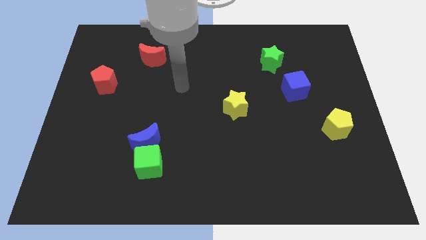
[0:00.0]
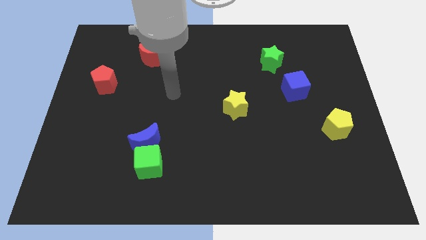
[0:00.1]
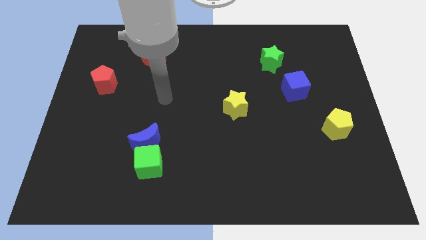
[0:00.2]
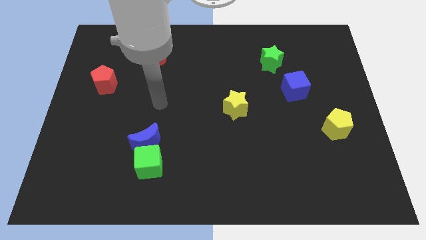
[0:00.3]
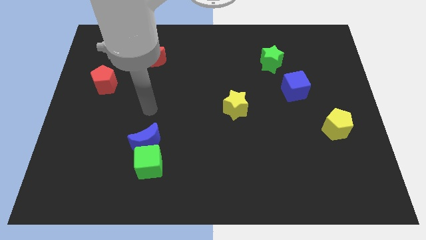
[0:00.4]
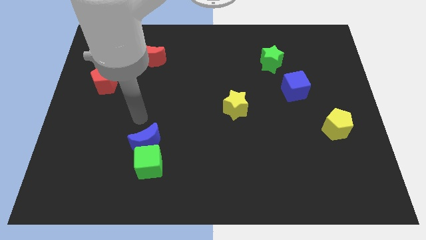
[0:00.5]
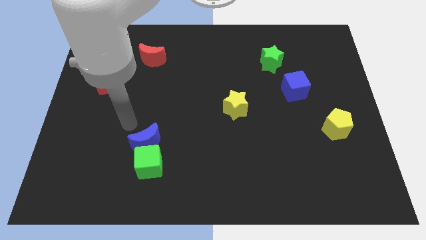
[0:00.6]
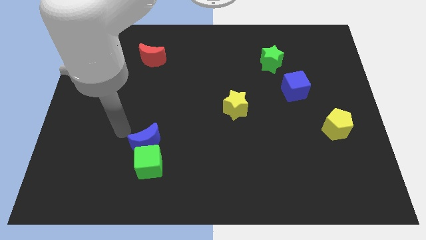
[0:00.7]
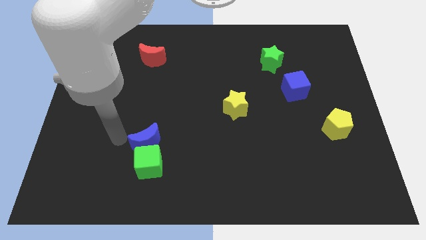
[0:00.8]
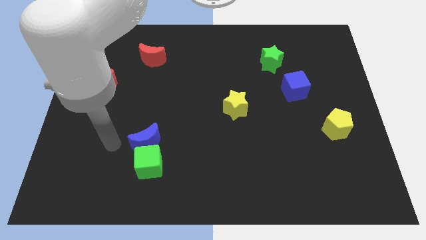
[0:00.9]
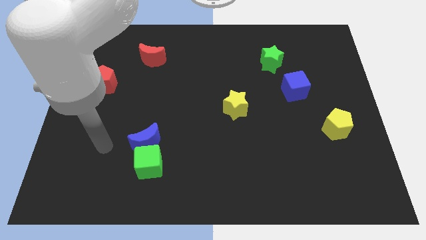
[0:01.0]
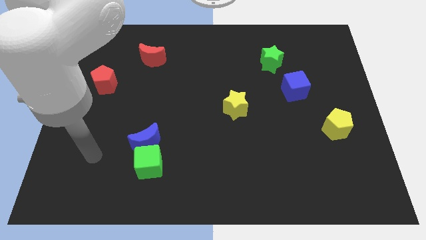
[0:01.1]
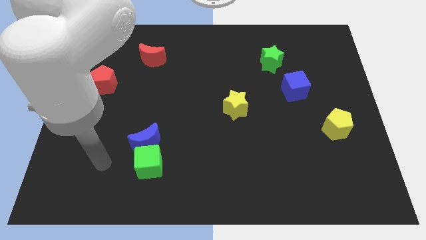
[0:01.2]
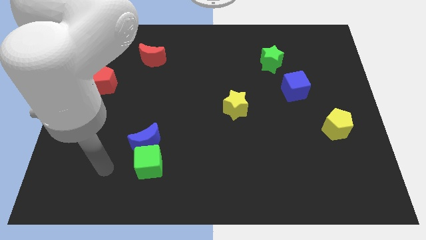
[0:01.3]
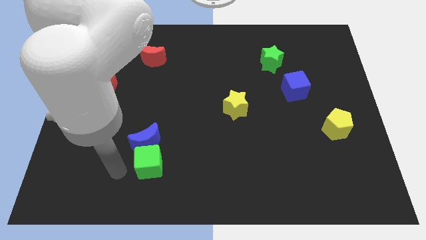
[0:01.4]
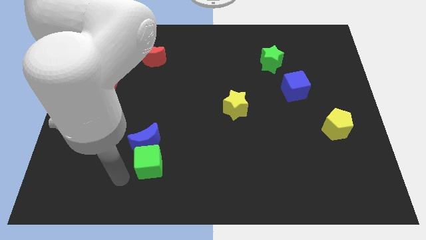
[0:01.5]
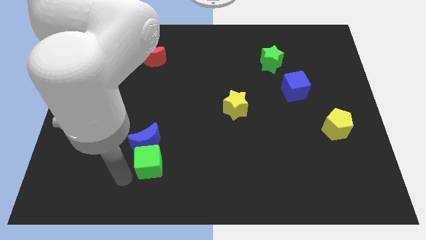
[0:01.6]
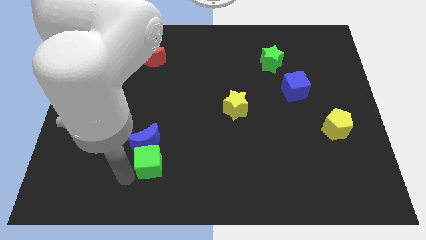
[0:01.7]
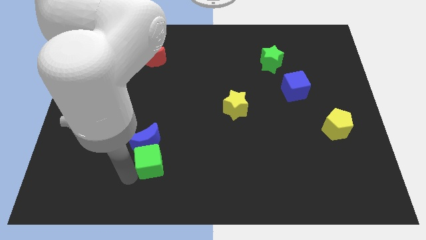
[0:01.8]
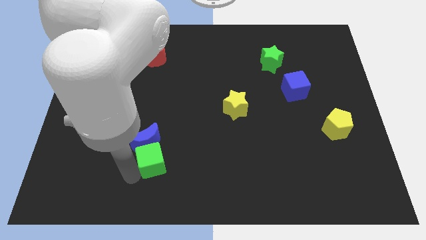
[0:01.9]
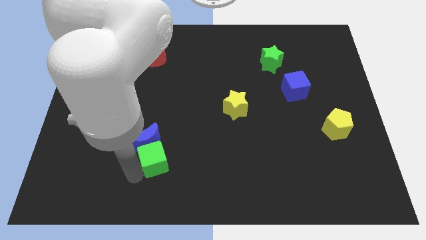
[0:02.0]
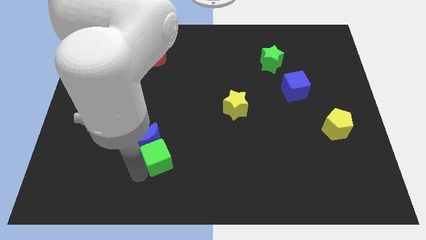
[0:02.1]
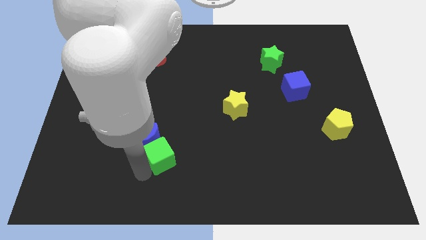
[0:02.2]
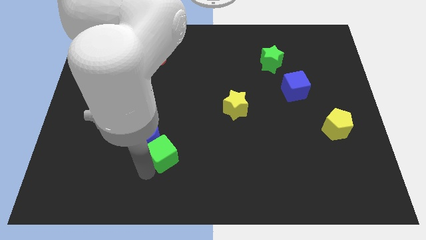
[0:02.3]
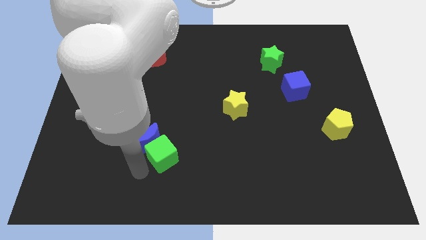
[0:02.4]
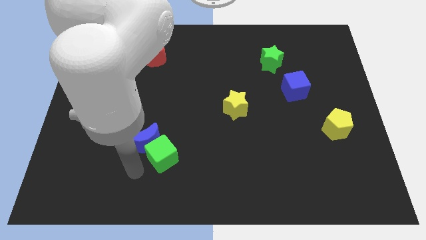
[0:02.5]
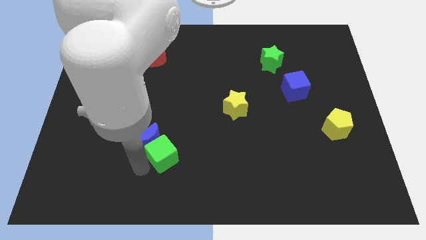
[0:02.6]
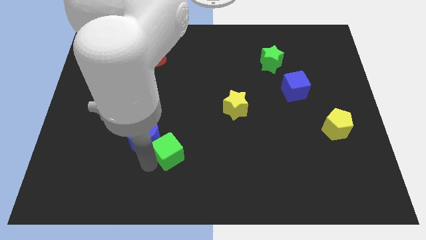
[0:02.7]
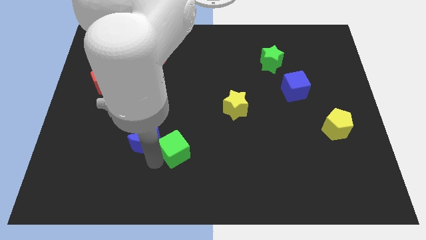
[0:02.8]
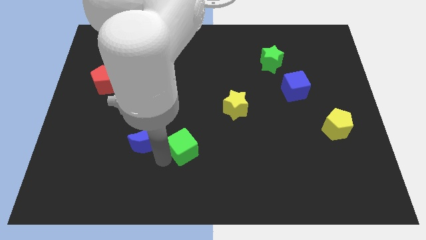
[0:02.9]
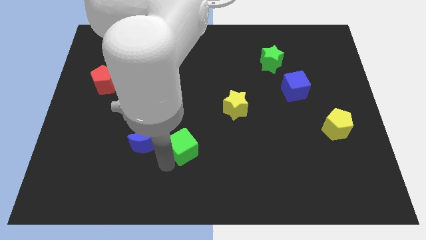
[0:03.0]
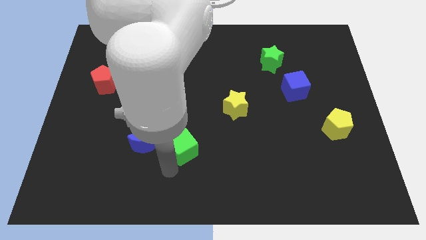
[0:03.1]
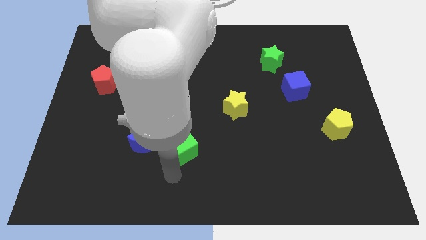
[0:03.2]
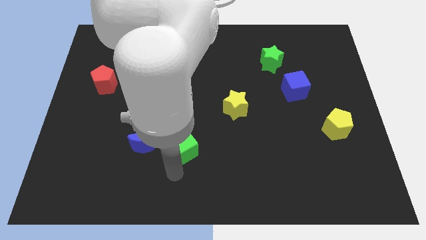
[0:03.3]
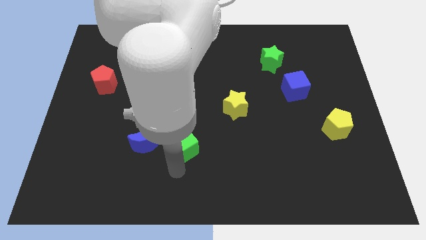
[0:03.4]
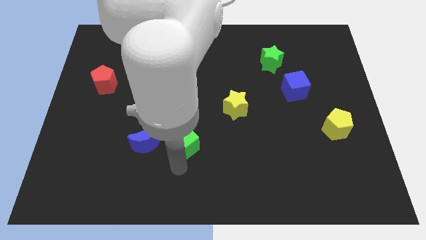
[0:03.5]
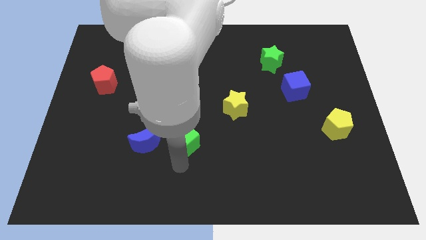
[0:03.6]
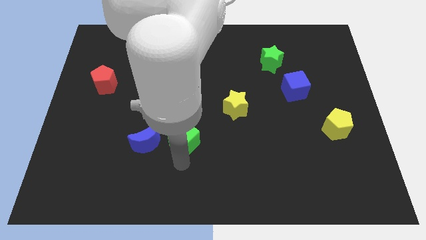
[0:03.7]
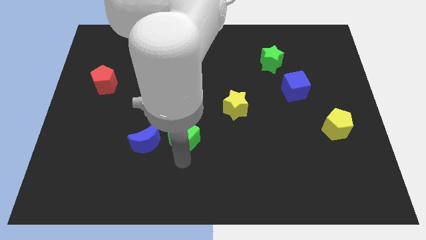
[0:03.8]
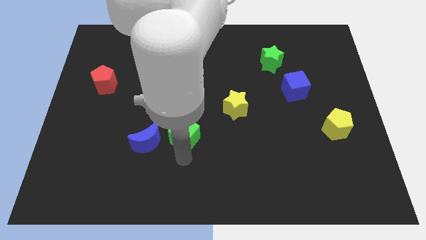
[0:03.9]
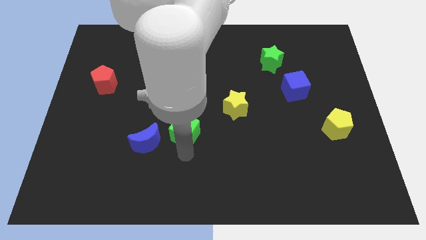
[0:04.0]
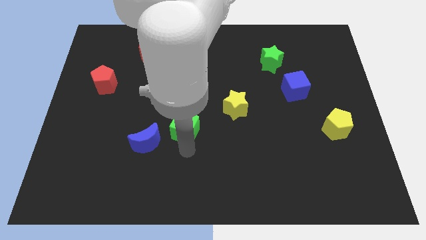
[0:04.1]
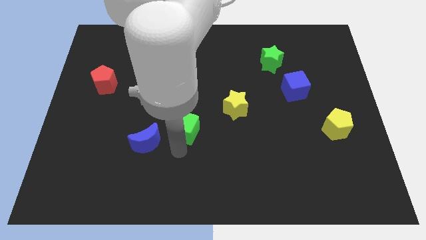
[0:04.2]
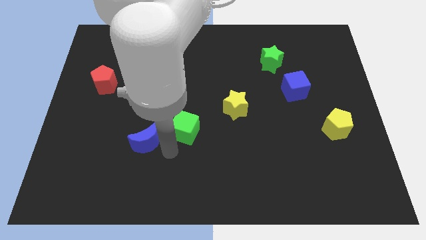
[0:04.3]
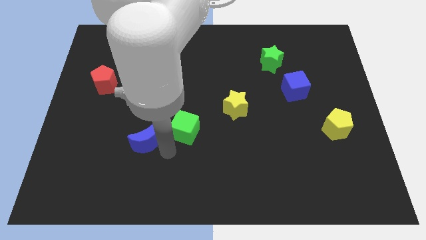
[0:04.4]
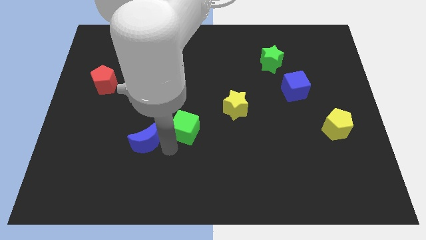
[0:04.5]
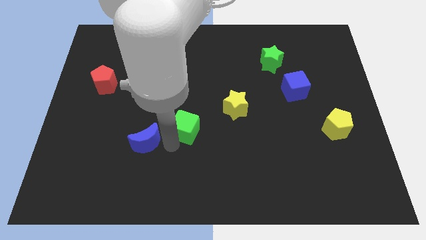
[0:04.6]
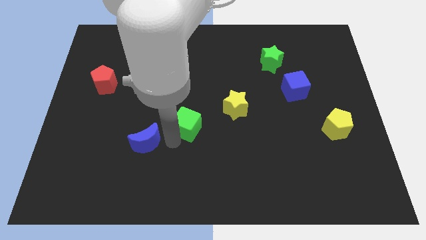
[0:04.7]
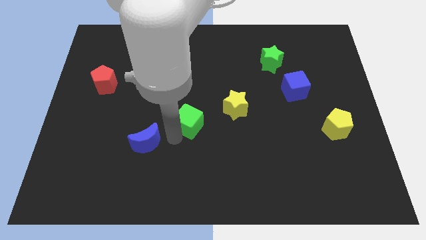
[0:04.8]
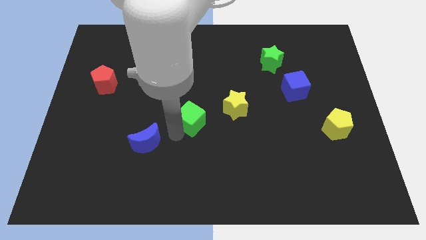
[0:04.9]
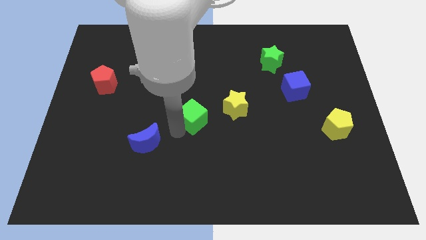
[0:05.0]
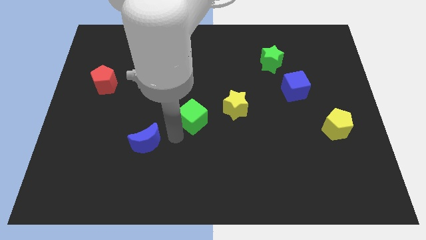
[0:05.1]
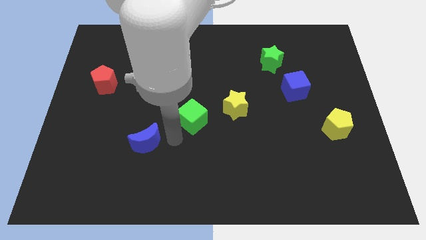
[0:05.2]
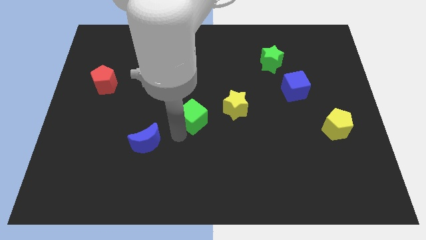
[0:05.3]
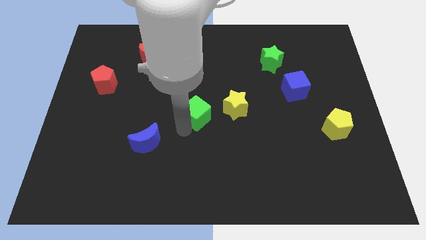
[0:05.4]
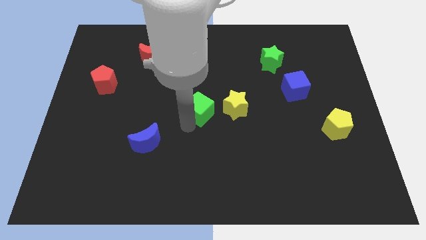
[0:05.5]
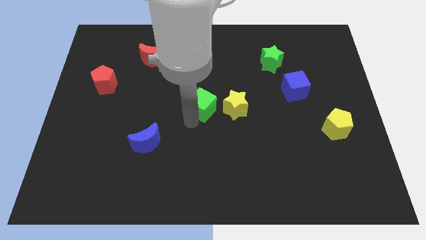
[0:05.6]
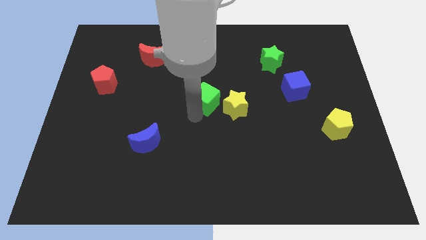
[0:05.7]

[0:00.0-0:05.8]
move the green cube diagonally up and right

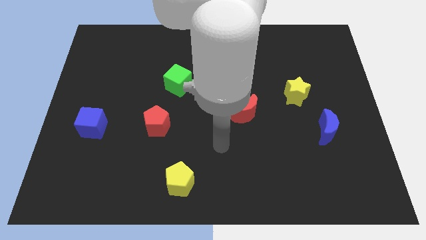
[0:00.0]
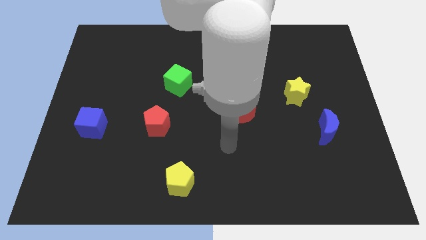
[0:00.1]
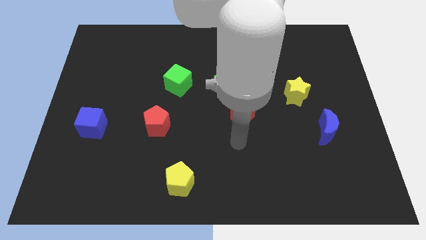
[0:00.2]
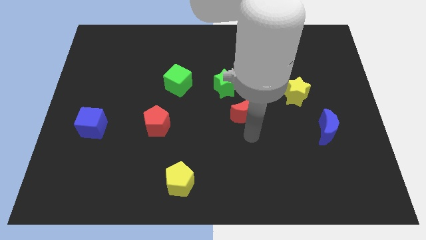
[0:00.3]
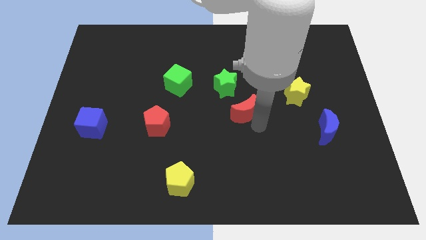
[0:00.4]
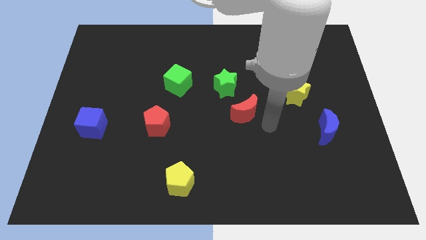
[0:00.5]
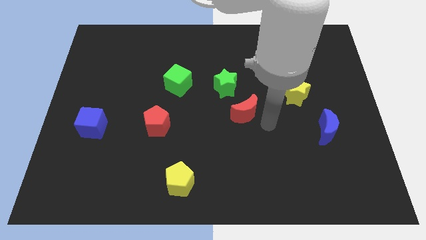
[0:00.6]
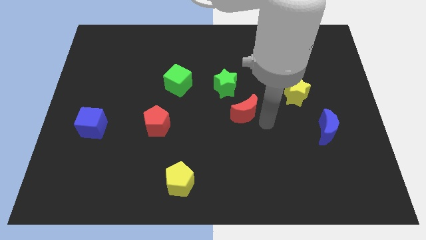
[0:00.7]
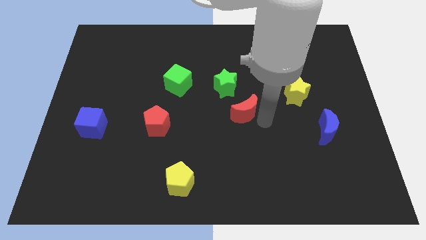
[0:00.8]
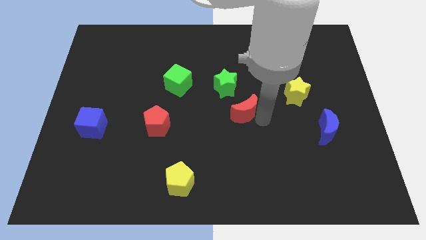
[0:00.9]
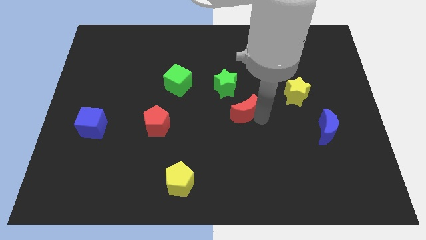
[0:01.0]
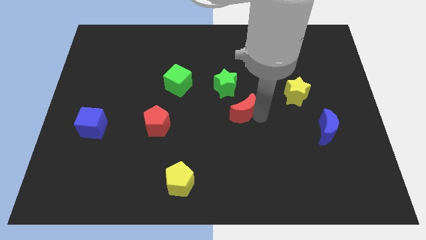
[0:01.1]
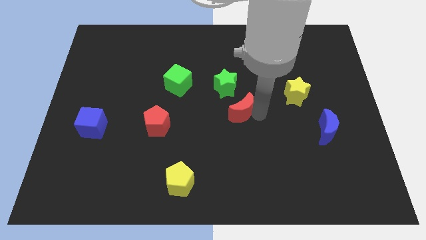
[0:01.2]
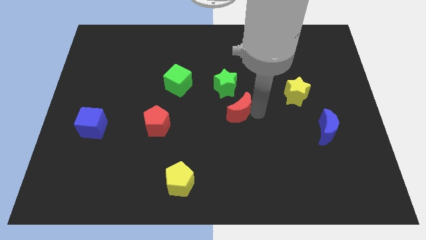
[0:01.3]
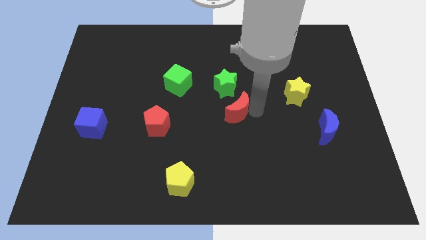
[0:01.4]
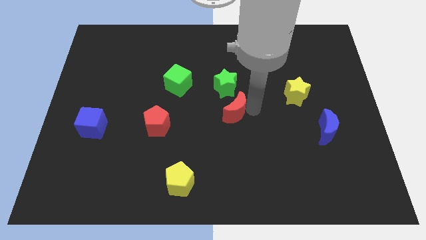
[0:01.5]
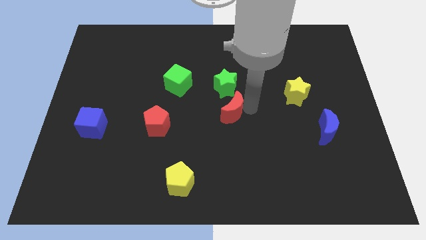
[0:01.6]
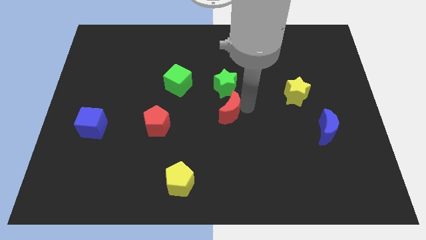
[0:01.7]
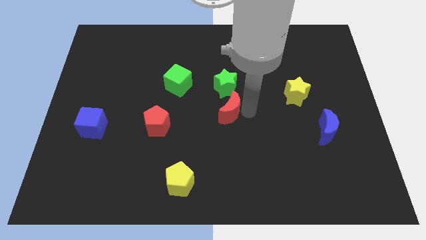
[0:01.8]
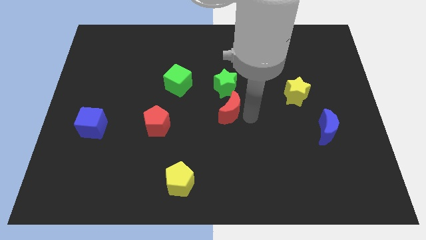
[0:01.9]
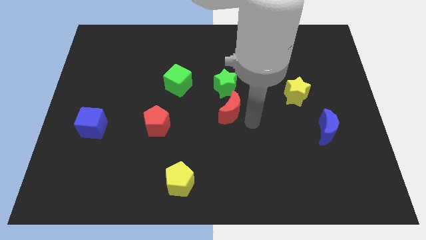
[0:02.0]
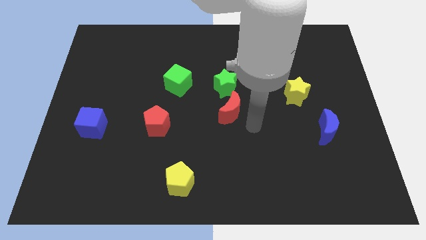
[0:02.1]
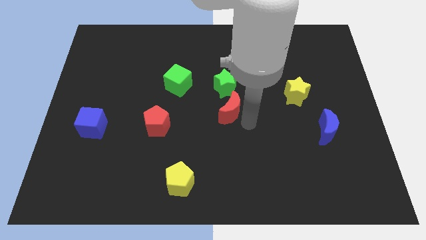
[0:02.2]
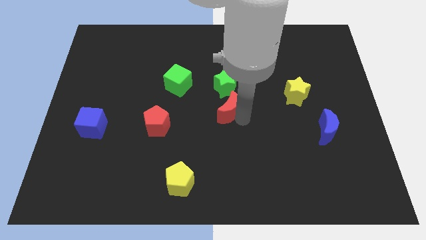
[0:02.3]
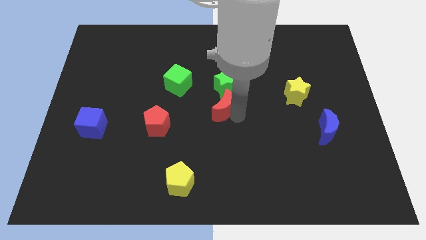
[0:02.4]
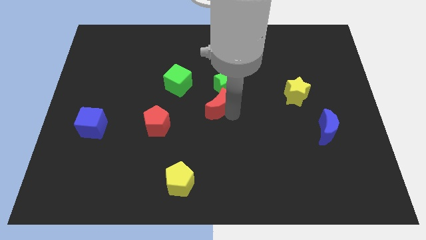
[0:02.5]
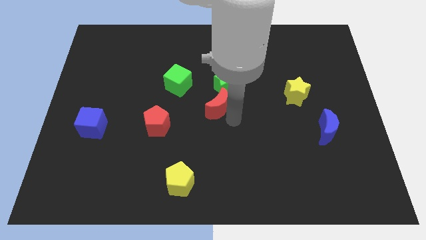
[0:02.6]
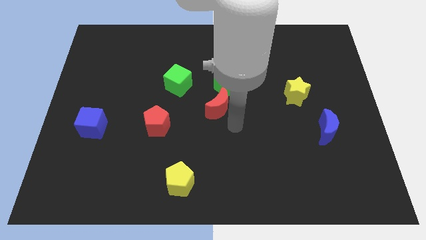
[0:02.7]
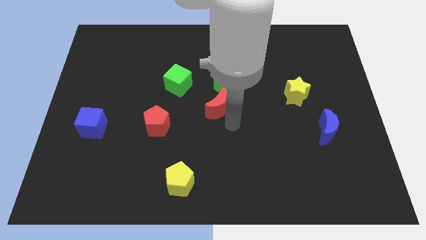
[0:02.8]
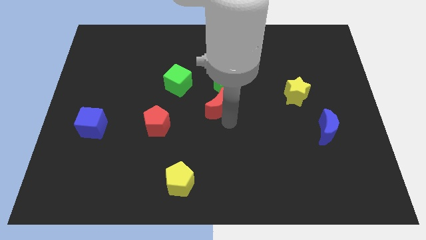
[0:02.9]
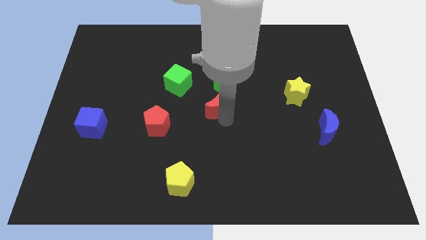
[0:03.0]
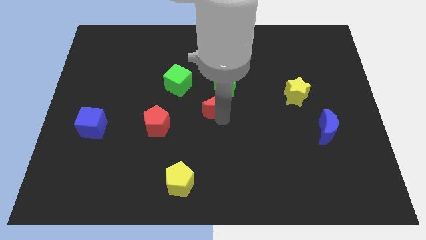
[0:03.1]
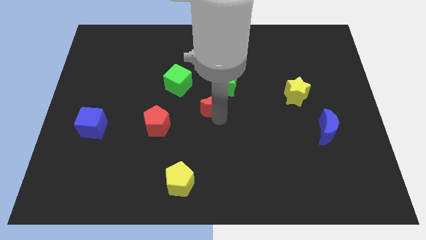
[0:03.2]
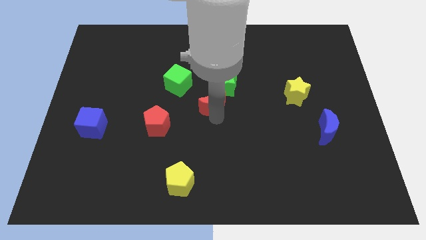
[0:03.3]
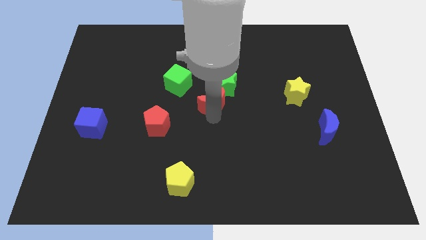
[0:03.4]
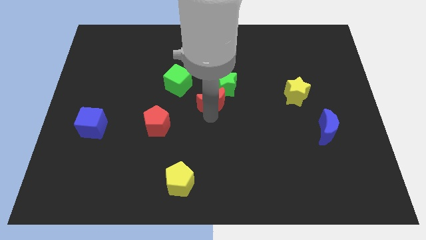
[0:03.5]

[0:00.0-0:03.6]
slide the red moon upwards and left diagonally slightly
